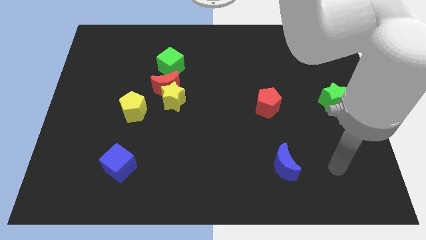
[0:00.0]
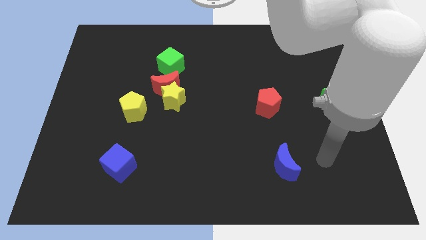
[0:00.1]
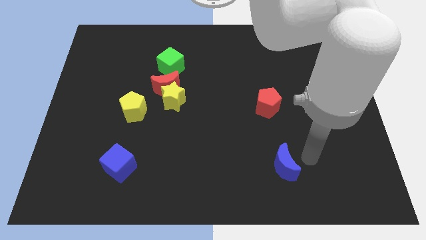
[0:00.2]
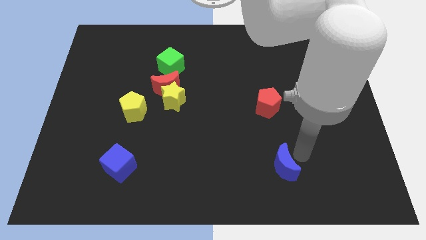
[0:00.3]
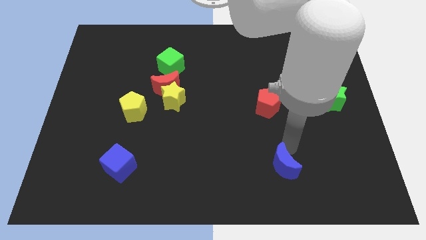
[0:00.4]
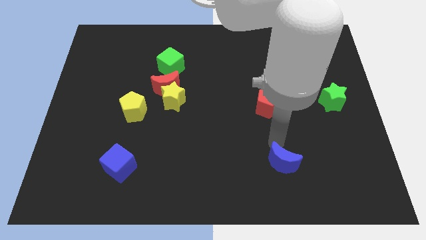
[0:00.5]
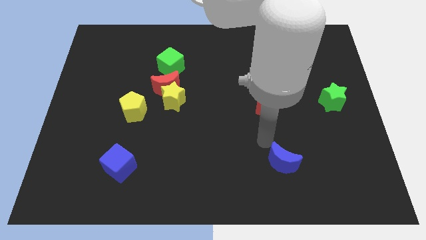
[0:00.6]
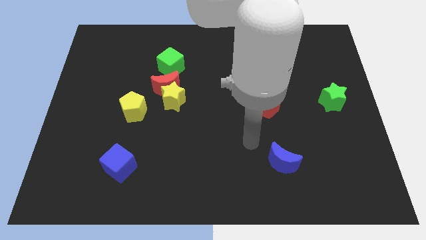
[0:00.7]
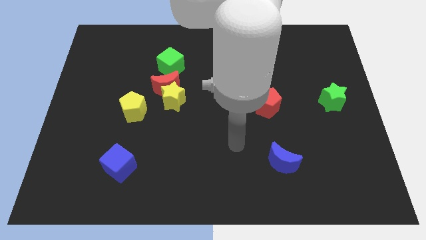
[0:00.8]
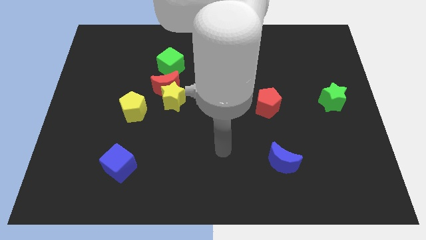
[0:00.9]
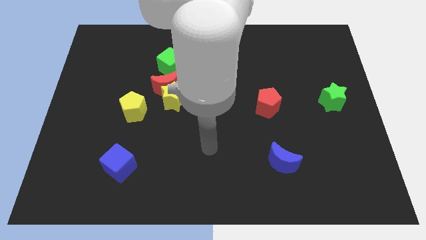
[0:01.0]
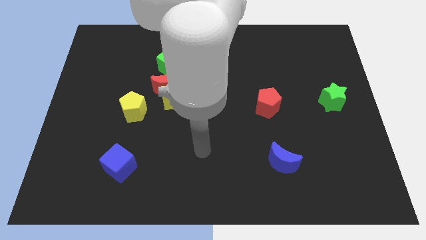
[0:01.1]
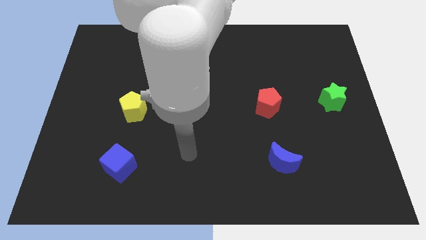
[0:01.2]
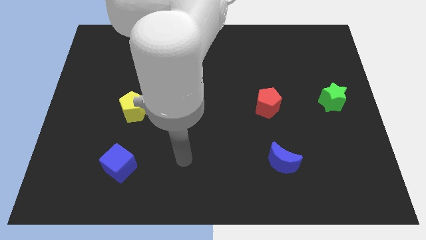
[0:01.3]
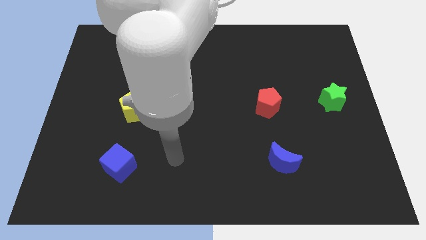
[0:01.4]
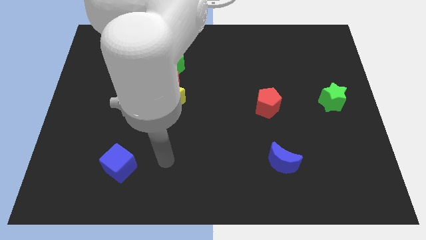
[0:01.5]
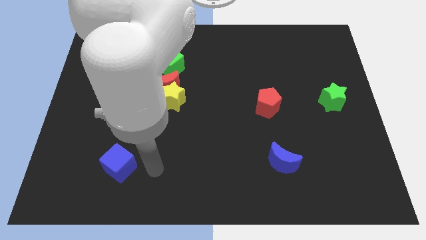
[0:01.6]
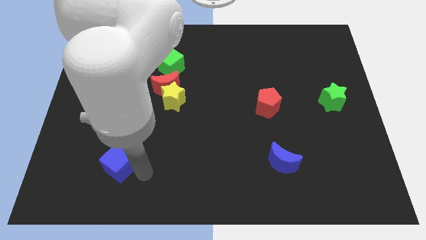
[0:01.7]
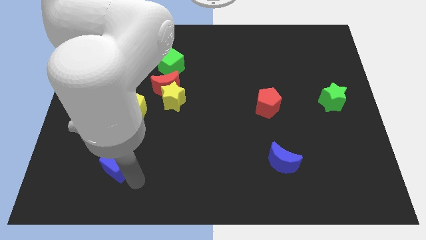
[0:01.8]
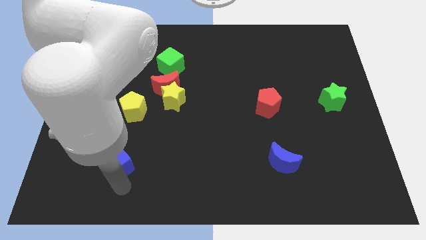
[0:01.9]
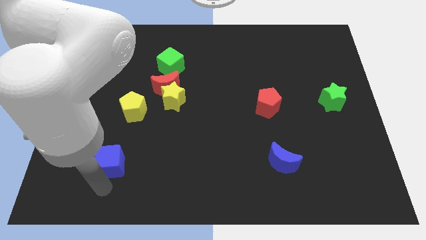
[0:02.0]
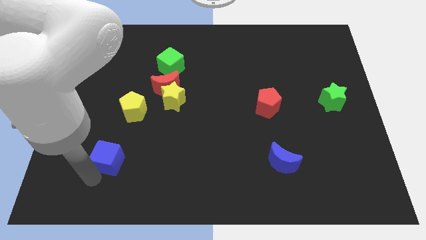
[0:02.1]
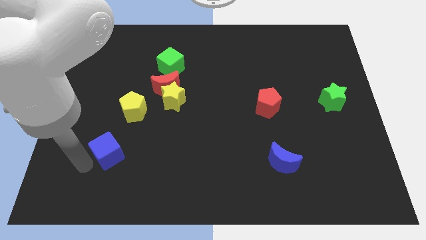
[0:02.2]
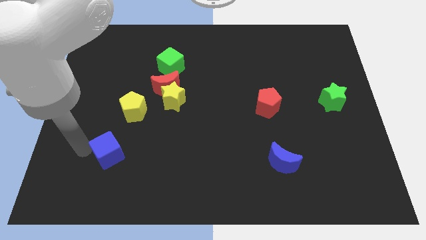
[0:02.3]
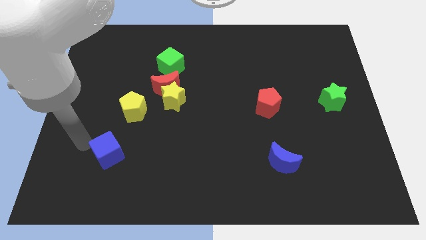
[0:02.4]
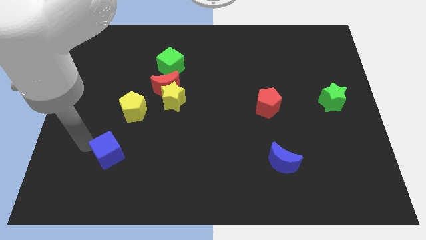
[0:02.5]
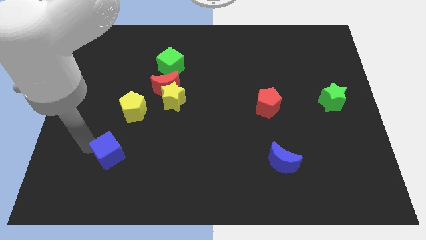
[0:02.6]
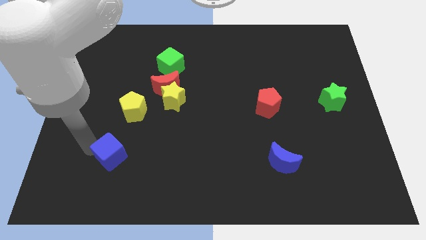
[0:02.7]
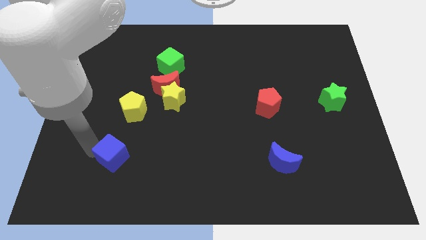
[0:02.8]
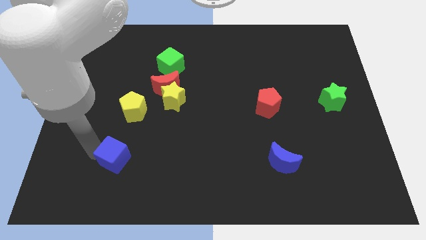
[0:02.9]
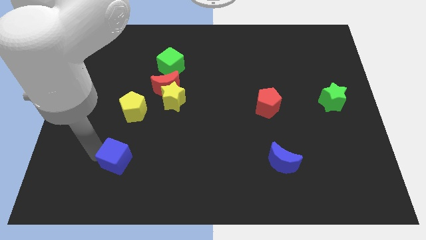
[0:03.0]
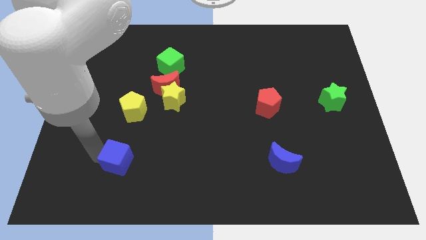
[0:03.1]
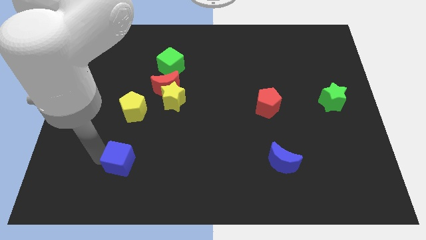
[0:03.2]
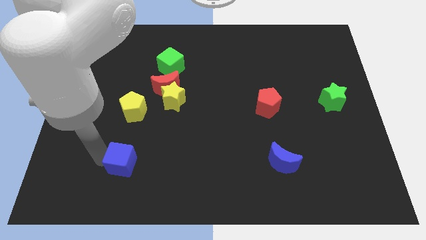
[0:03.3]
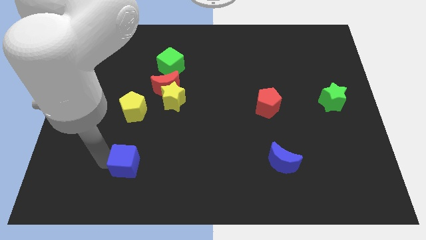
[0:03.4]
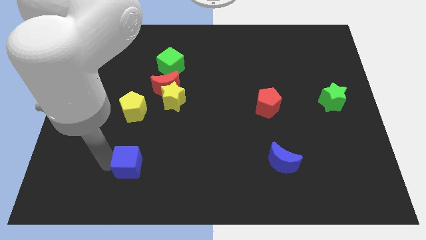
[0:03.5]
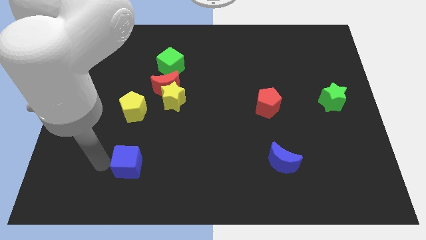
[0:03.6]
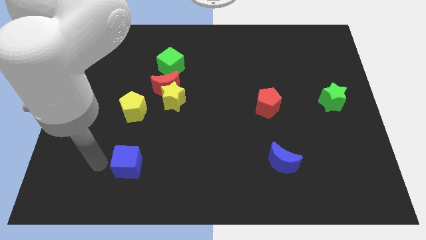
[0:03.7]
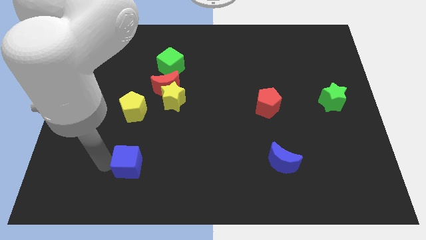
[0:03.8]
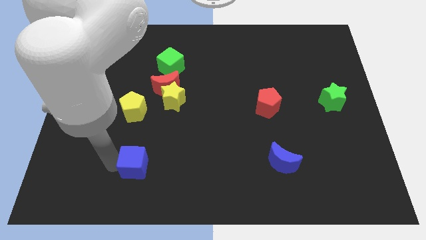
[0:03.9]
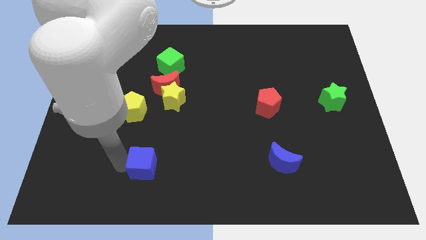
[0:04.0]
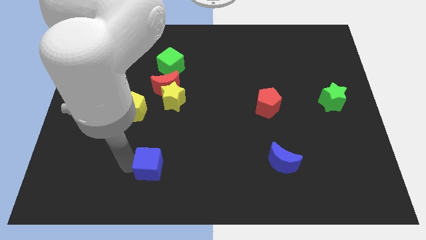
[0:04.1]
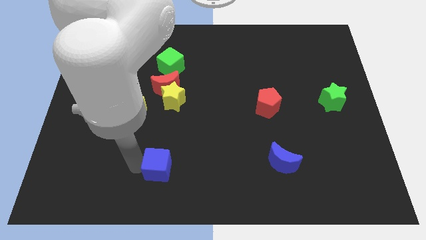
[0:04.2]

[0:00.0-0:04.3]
slide the blue cube a little bit to the right

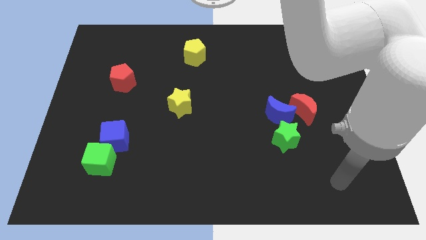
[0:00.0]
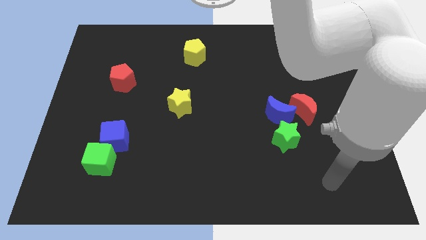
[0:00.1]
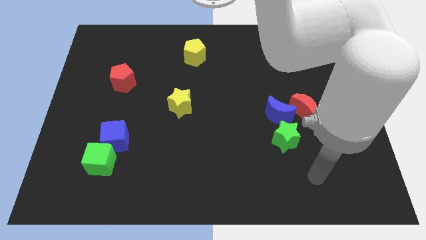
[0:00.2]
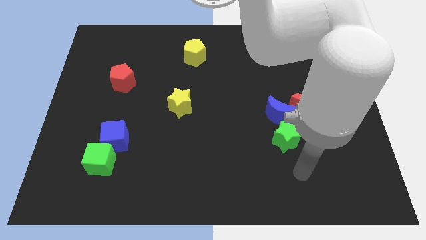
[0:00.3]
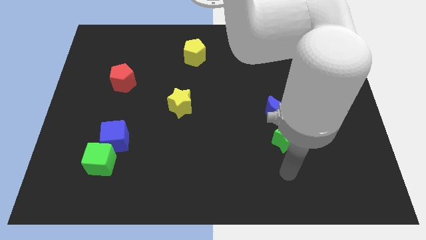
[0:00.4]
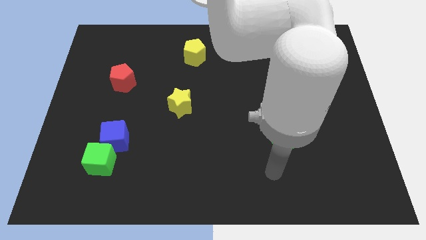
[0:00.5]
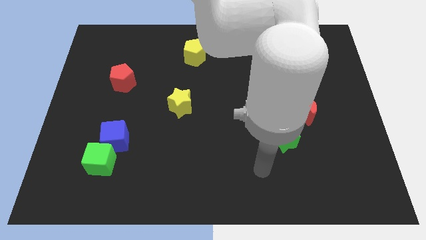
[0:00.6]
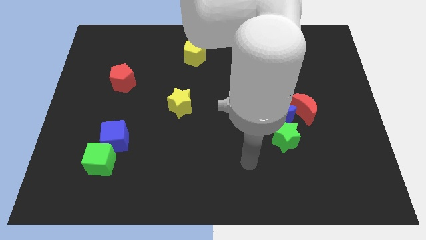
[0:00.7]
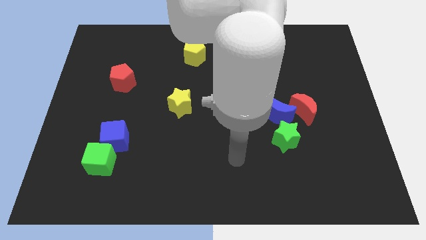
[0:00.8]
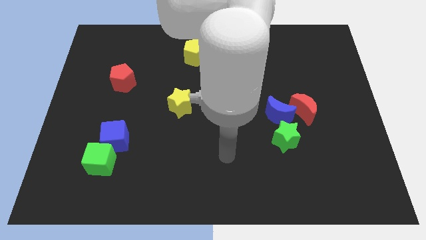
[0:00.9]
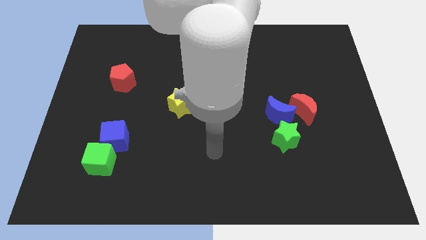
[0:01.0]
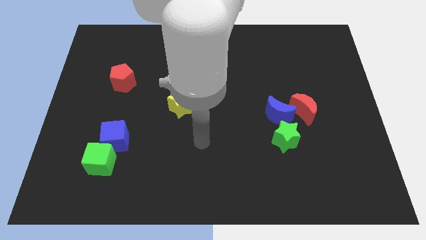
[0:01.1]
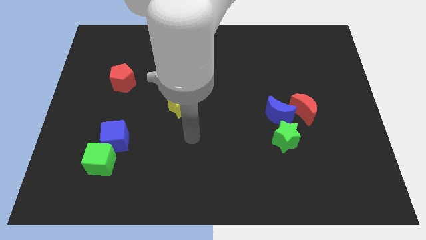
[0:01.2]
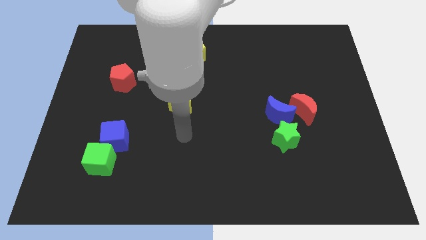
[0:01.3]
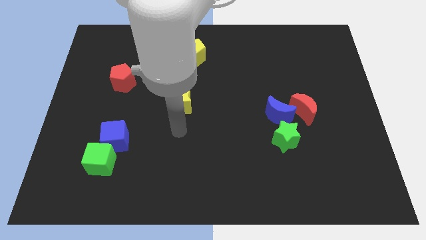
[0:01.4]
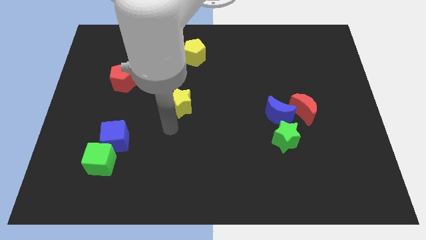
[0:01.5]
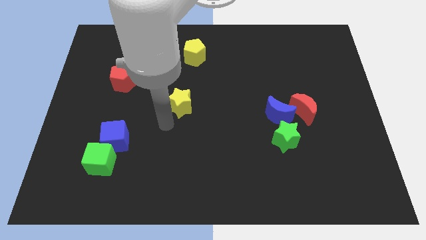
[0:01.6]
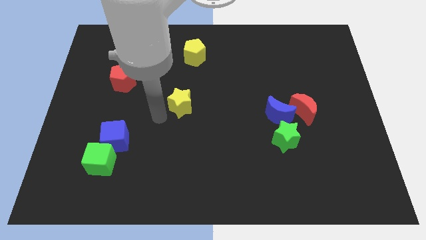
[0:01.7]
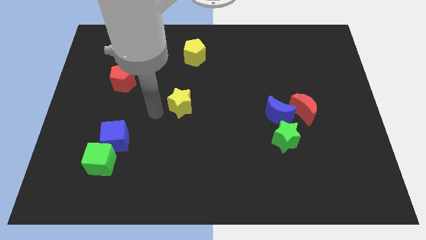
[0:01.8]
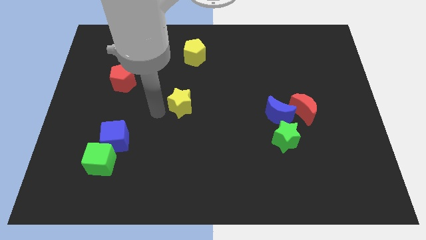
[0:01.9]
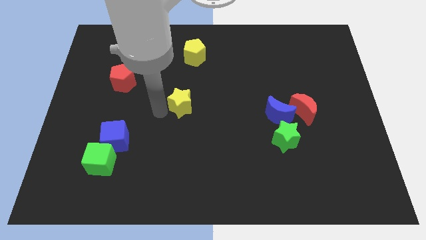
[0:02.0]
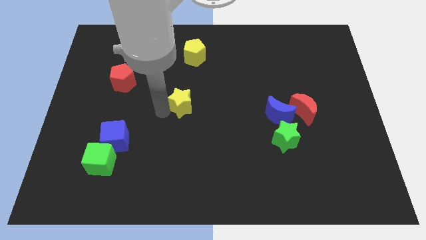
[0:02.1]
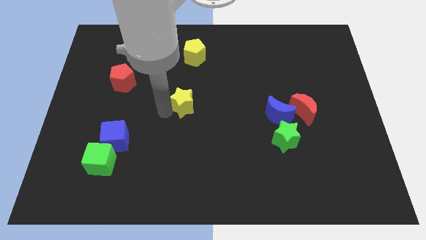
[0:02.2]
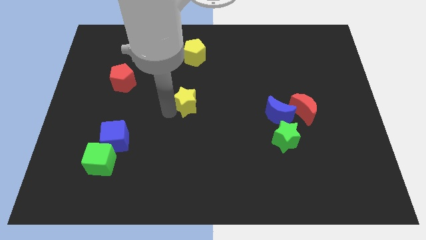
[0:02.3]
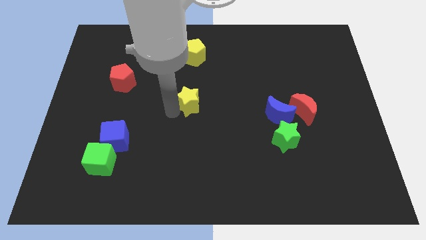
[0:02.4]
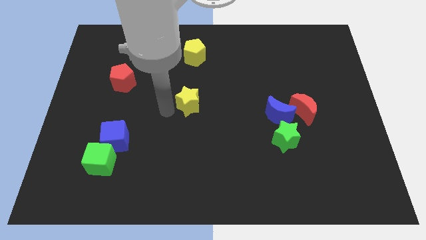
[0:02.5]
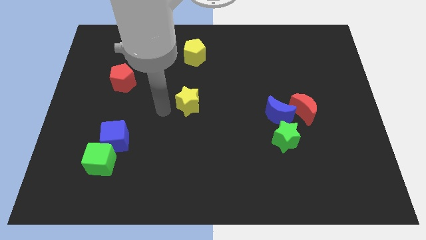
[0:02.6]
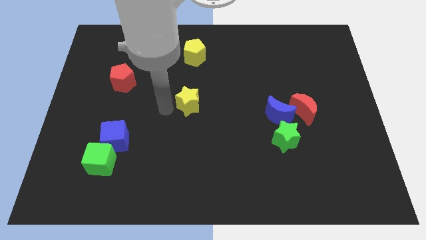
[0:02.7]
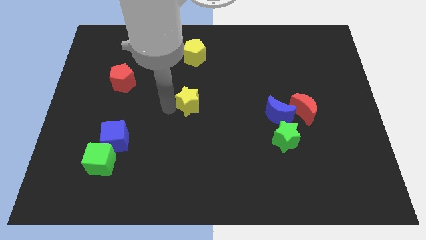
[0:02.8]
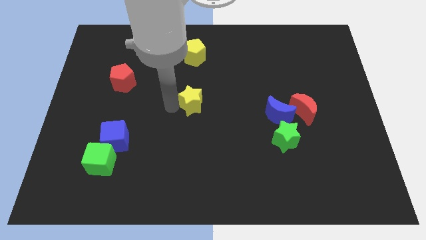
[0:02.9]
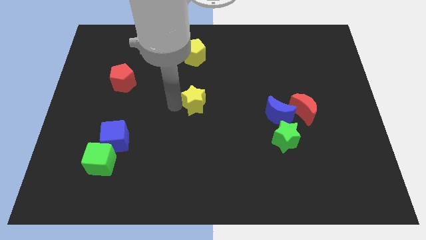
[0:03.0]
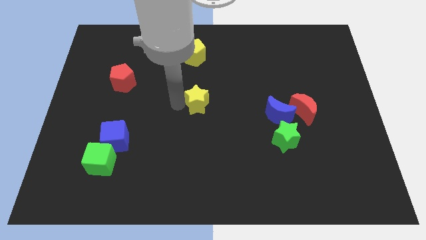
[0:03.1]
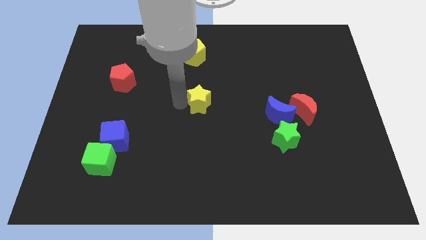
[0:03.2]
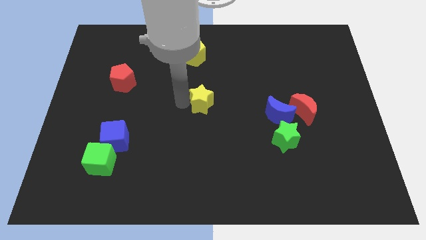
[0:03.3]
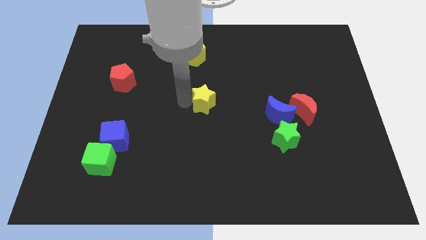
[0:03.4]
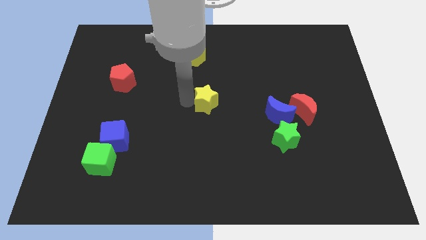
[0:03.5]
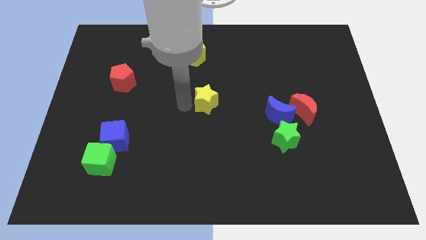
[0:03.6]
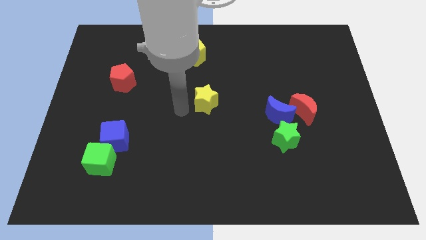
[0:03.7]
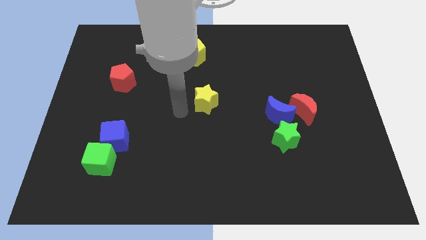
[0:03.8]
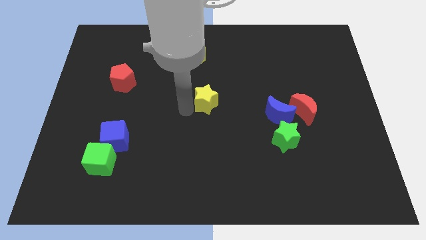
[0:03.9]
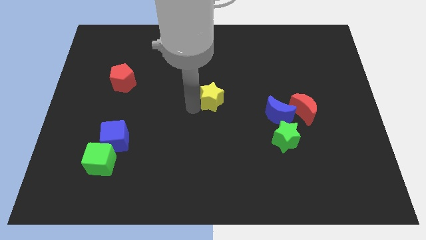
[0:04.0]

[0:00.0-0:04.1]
push the yellow star a bit right
